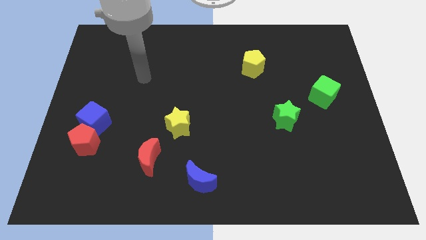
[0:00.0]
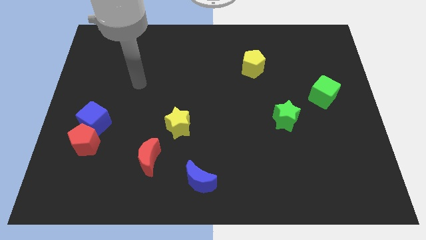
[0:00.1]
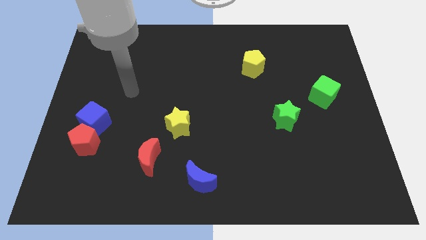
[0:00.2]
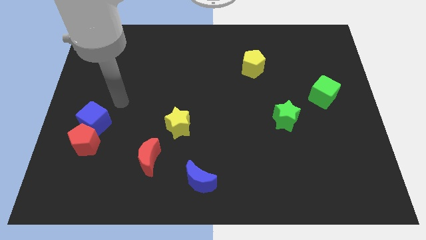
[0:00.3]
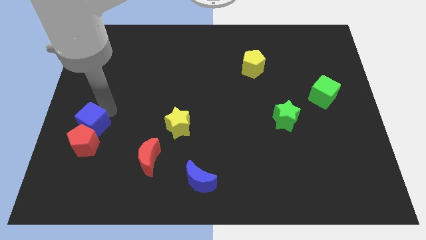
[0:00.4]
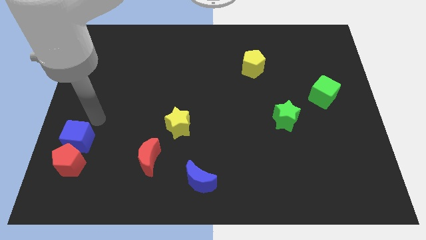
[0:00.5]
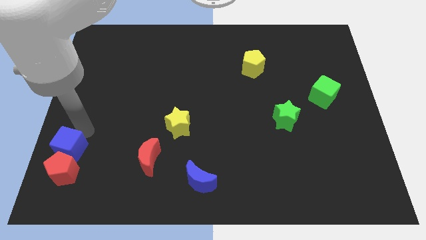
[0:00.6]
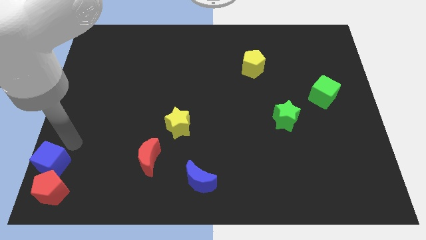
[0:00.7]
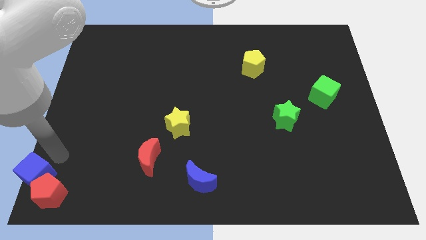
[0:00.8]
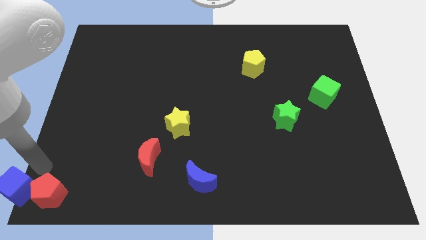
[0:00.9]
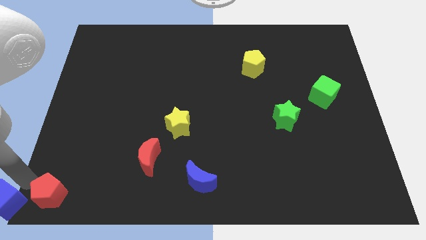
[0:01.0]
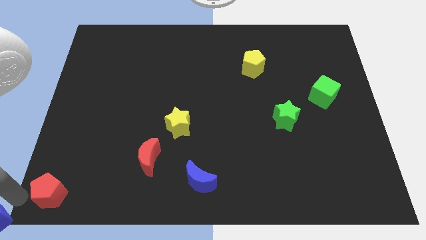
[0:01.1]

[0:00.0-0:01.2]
move the red pentagon away from the blue cube

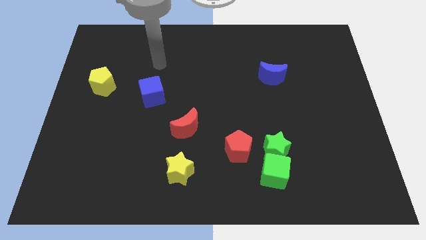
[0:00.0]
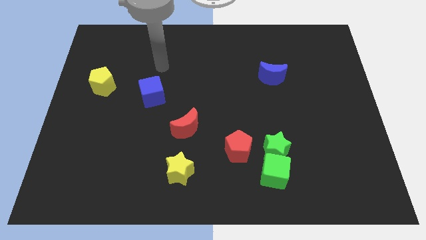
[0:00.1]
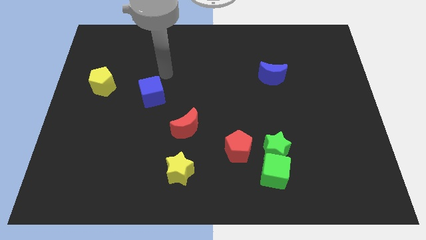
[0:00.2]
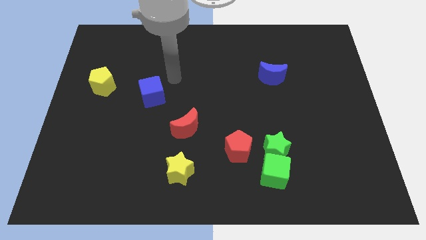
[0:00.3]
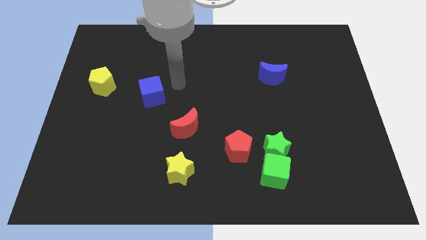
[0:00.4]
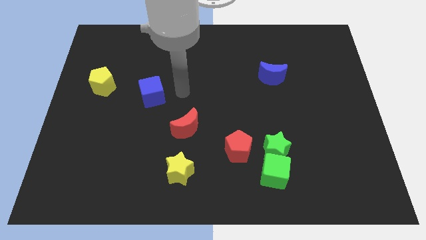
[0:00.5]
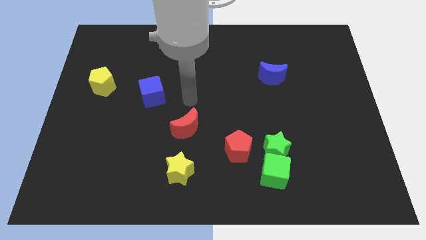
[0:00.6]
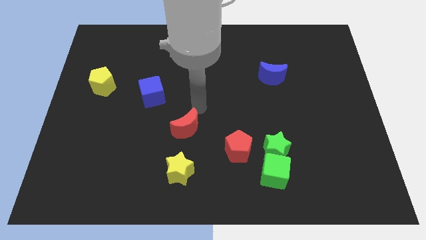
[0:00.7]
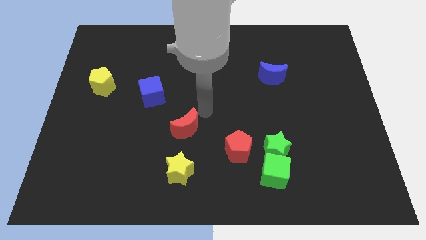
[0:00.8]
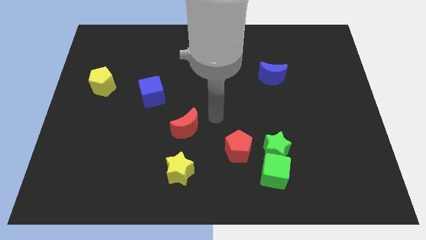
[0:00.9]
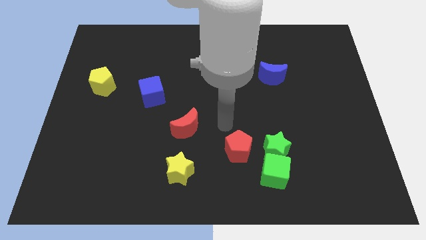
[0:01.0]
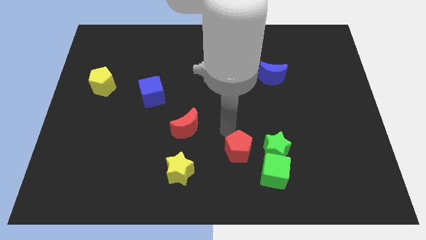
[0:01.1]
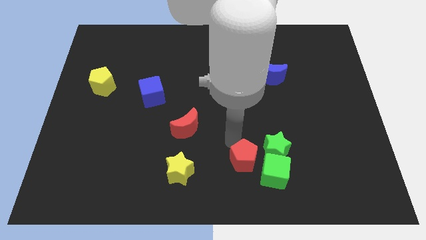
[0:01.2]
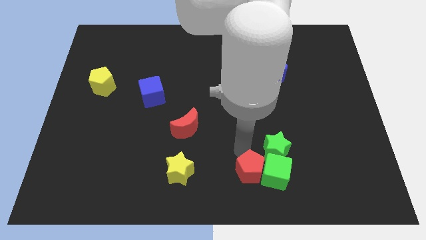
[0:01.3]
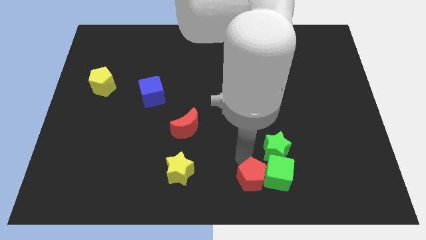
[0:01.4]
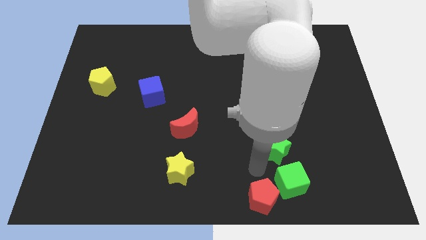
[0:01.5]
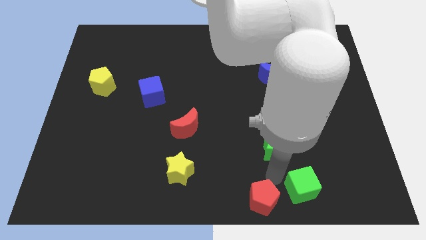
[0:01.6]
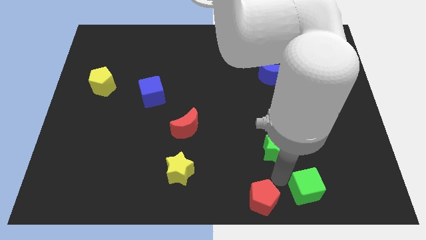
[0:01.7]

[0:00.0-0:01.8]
pull the green star apart from the green cube and red pentagon

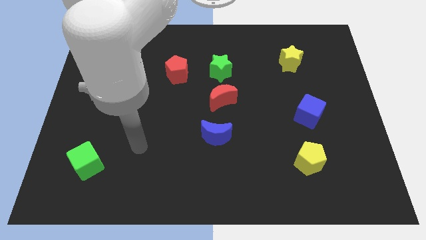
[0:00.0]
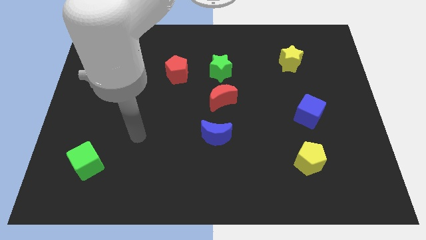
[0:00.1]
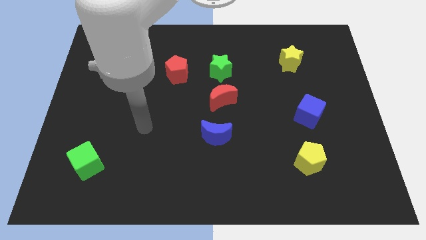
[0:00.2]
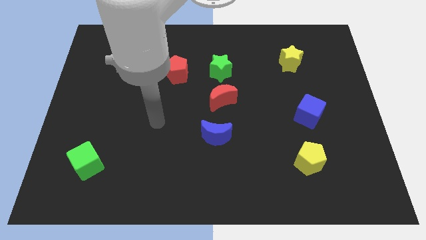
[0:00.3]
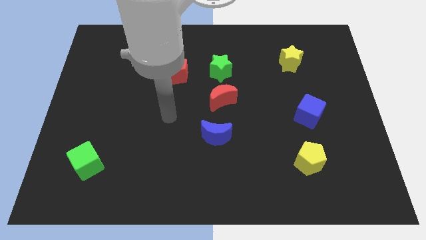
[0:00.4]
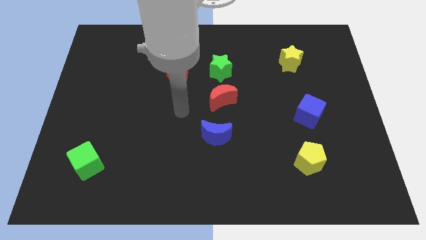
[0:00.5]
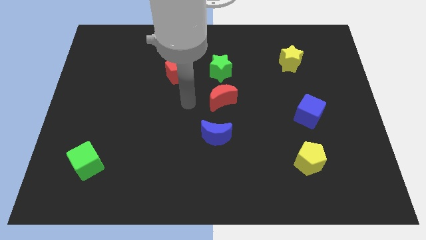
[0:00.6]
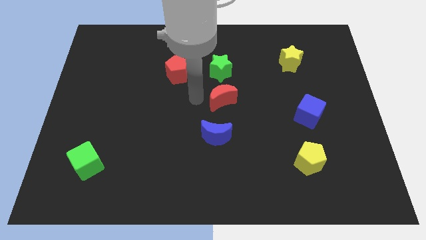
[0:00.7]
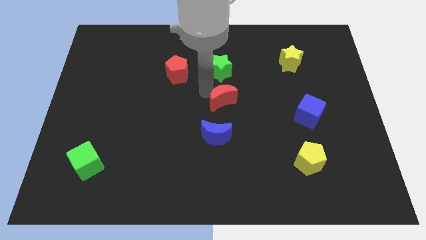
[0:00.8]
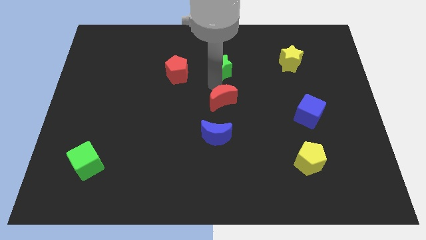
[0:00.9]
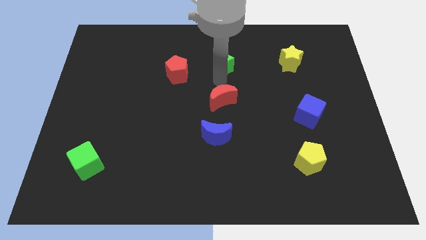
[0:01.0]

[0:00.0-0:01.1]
separate the red moon from the green star

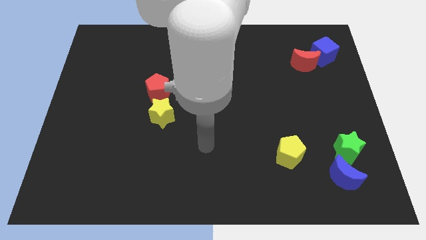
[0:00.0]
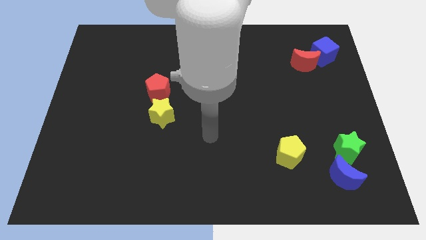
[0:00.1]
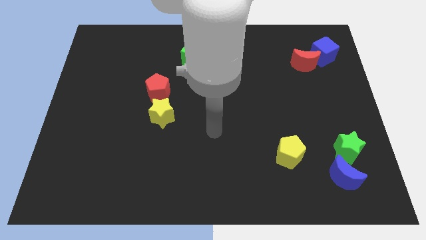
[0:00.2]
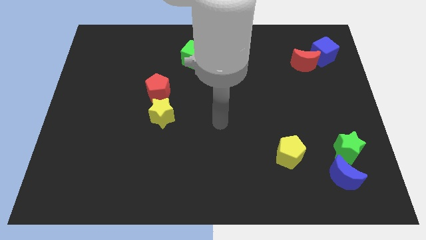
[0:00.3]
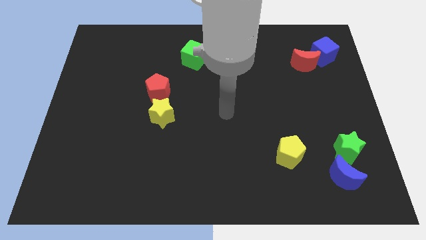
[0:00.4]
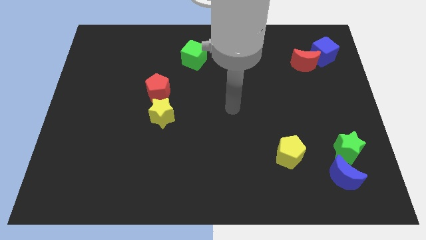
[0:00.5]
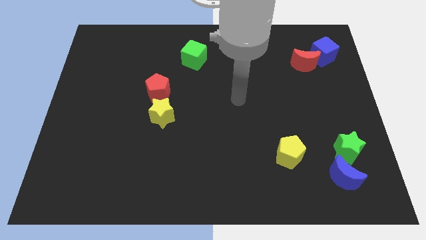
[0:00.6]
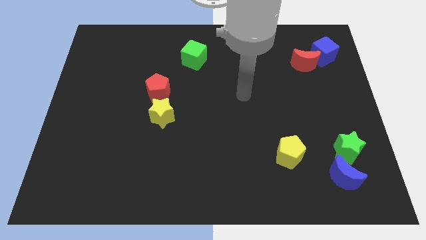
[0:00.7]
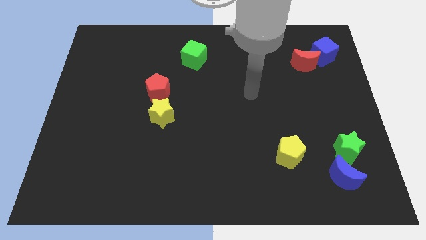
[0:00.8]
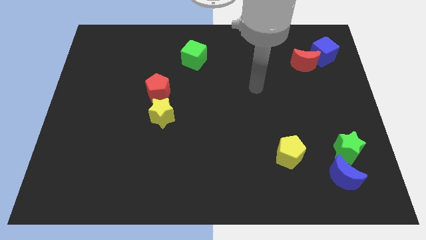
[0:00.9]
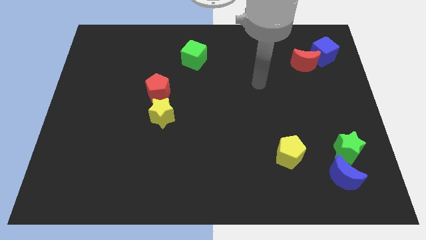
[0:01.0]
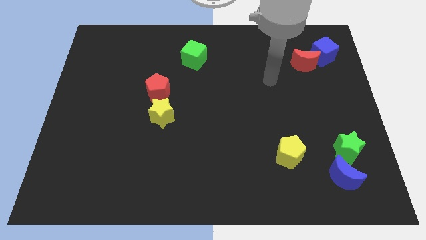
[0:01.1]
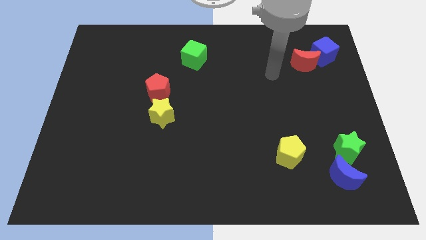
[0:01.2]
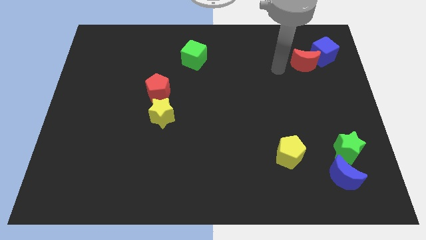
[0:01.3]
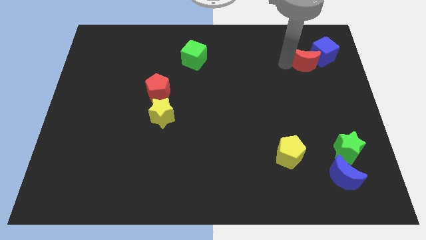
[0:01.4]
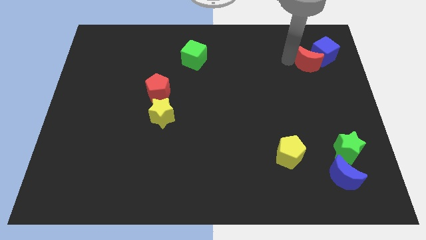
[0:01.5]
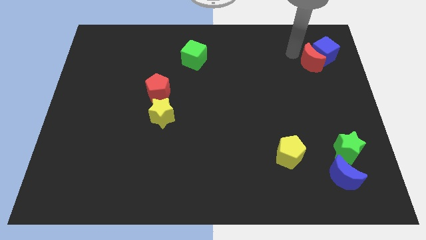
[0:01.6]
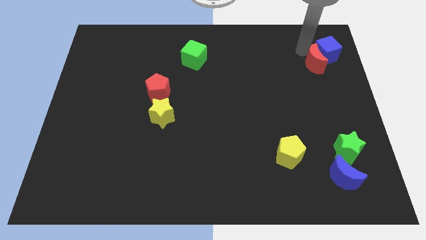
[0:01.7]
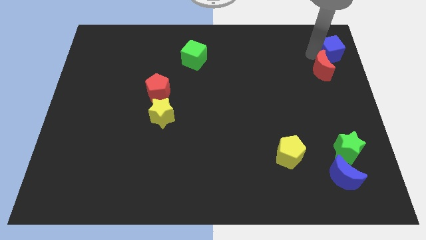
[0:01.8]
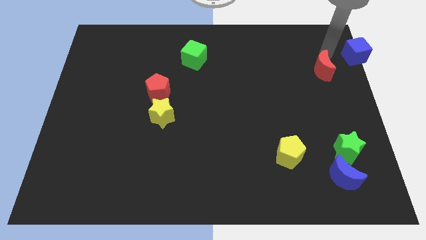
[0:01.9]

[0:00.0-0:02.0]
move the red moon away from the blue cube

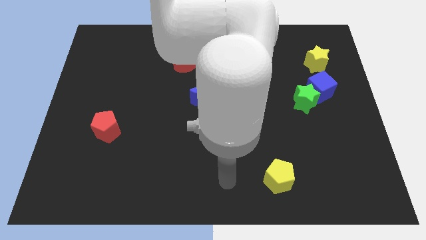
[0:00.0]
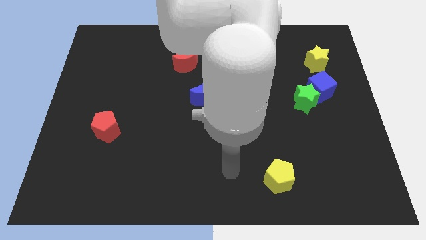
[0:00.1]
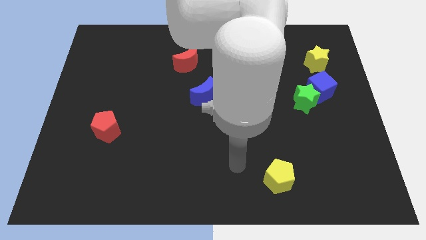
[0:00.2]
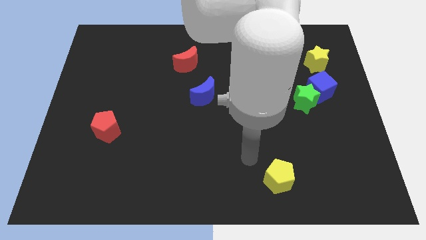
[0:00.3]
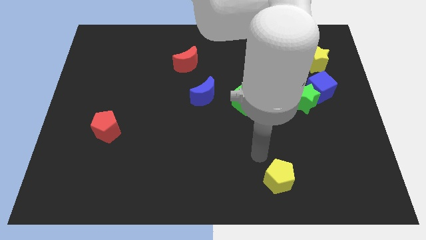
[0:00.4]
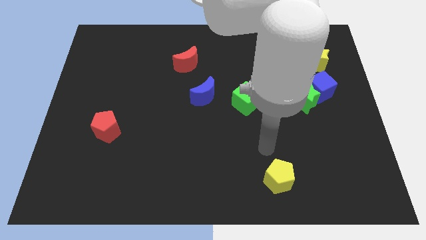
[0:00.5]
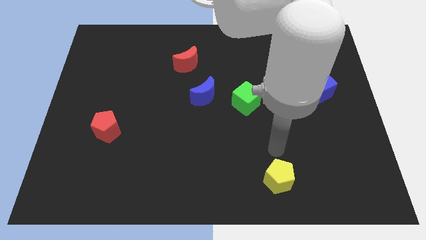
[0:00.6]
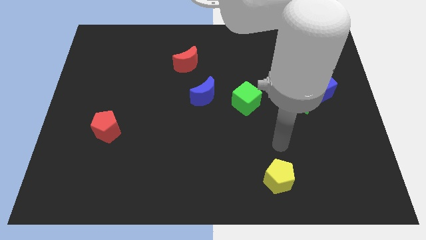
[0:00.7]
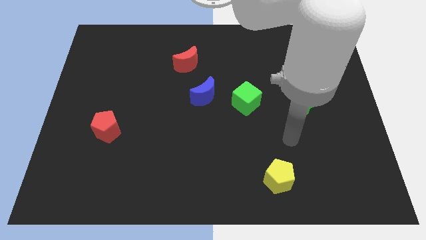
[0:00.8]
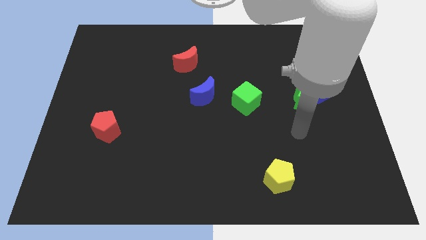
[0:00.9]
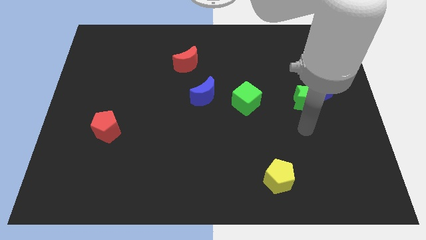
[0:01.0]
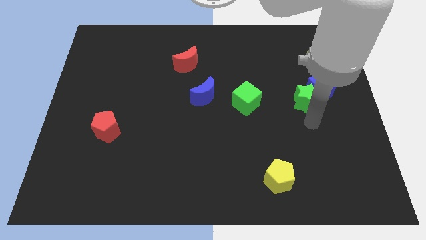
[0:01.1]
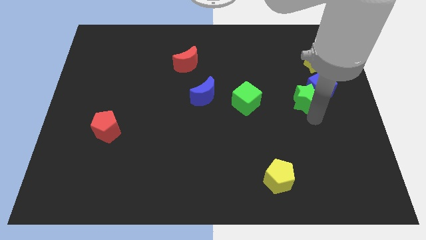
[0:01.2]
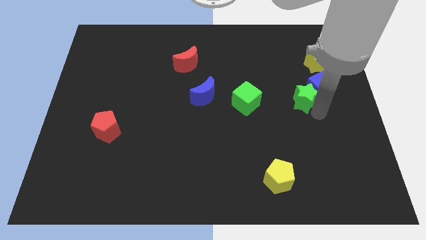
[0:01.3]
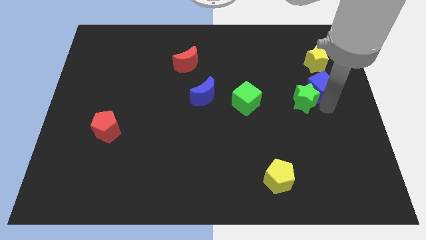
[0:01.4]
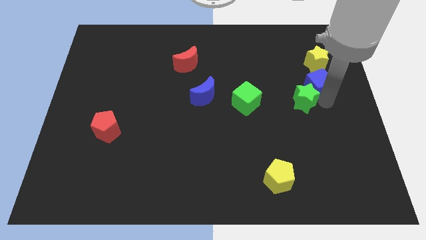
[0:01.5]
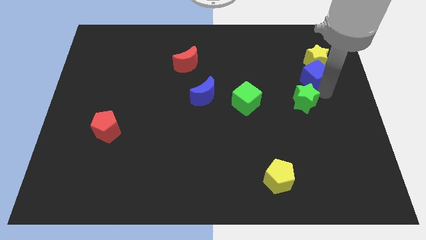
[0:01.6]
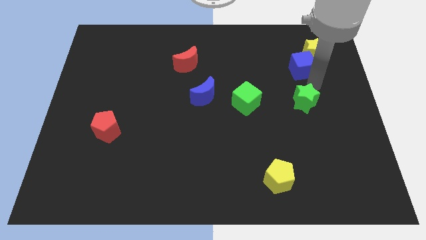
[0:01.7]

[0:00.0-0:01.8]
pull the green star apart from the blue cube

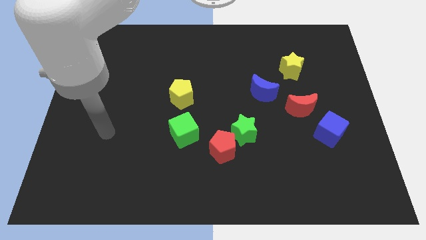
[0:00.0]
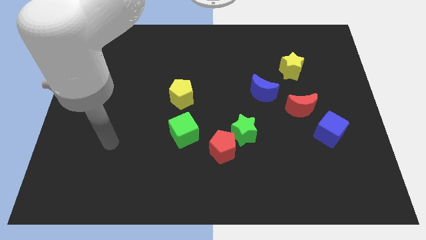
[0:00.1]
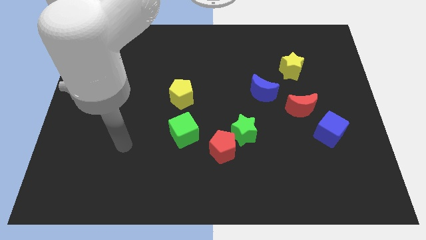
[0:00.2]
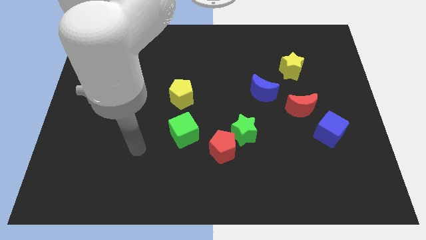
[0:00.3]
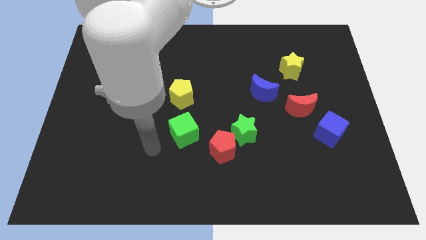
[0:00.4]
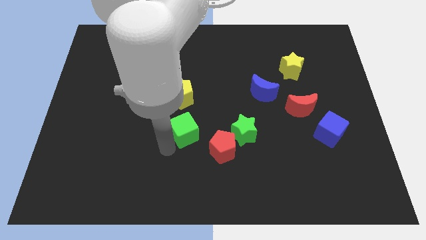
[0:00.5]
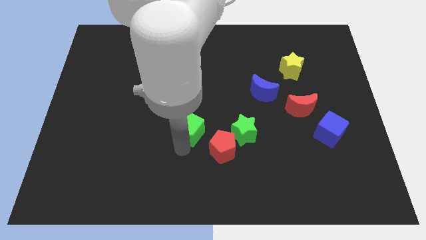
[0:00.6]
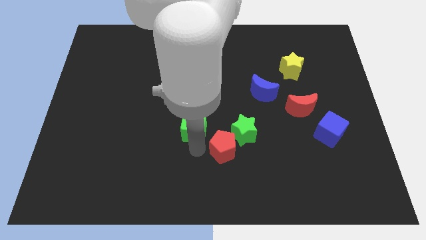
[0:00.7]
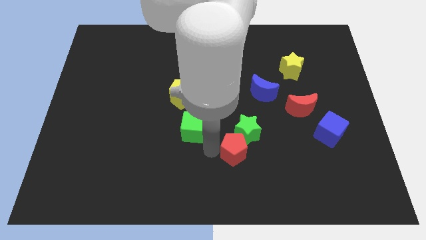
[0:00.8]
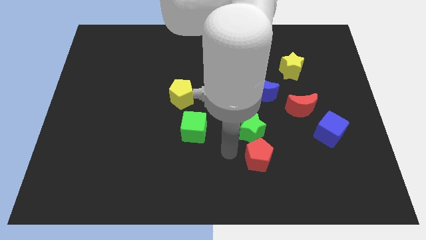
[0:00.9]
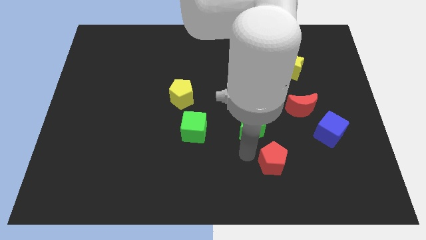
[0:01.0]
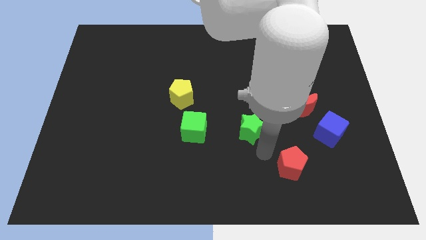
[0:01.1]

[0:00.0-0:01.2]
separate the green star from the red pentagon

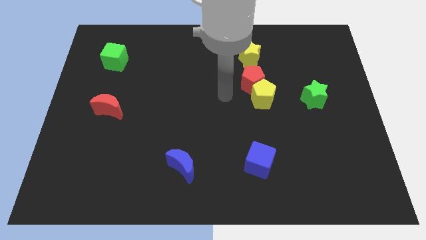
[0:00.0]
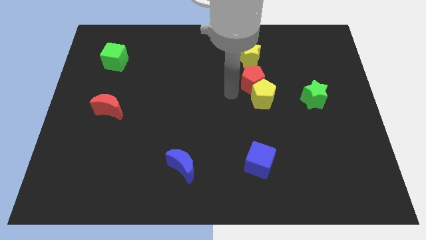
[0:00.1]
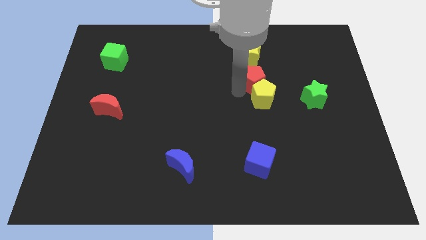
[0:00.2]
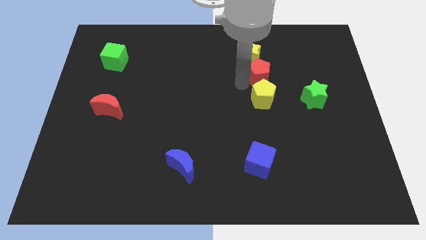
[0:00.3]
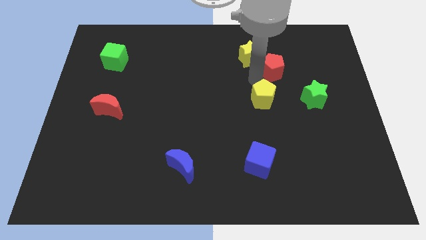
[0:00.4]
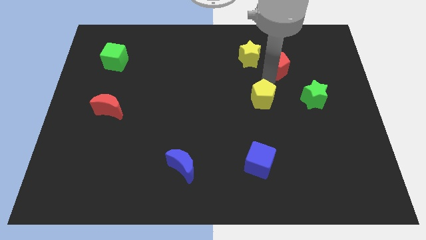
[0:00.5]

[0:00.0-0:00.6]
separate the yellow pentagon from the red pentagon
